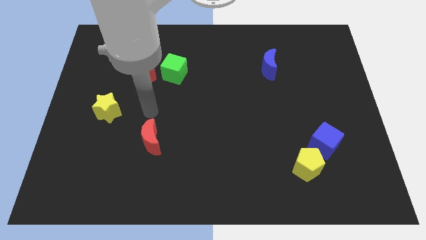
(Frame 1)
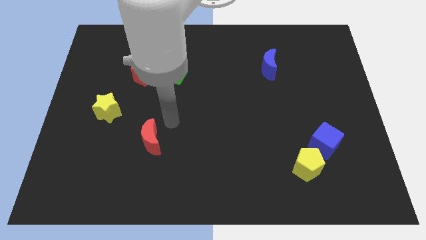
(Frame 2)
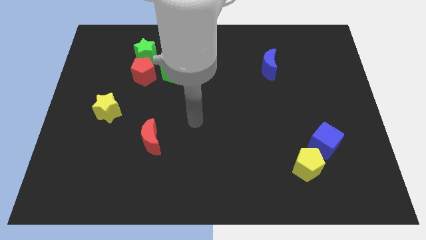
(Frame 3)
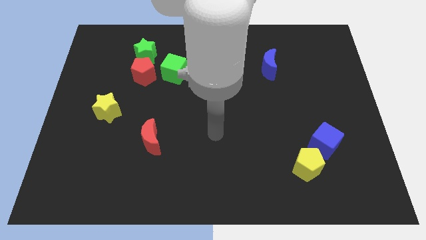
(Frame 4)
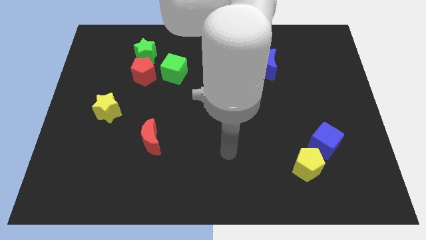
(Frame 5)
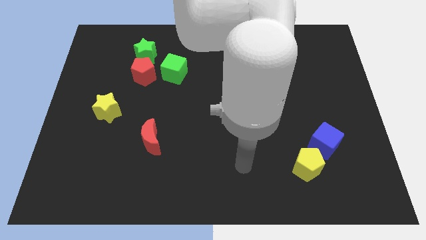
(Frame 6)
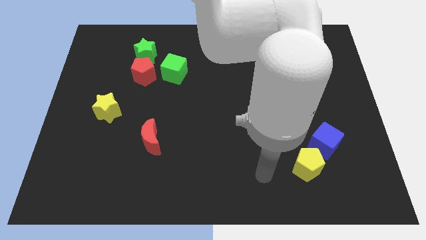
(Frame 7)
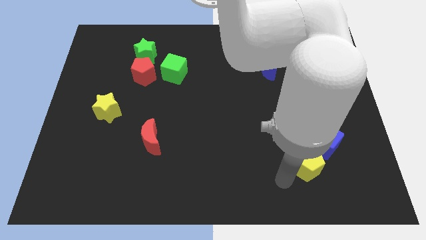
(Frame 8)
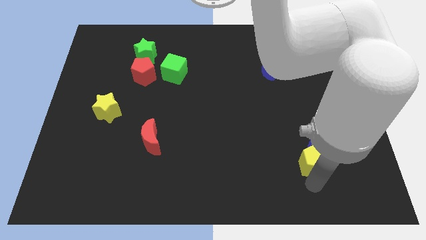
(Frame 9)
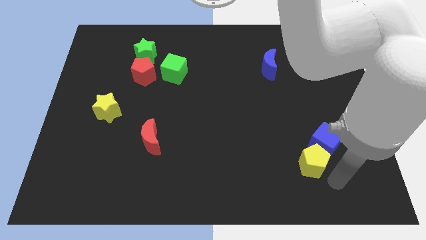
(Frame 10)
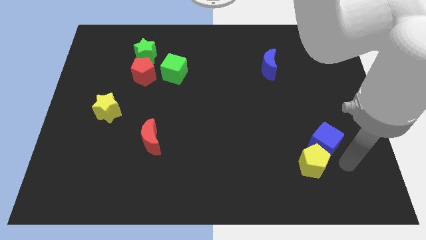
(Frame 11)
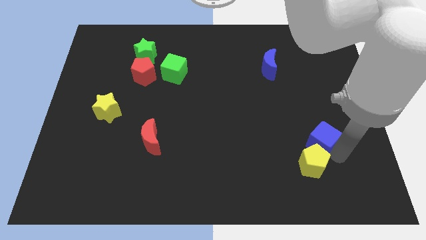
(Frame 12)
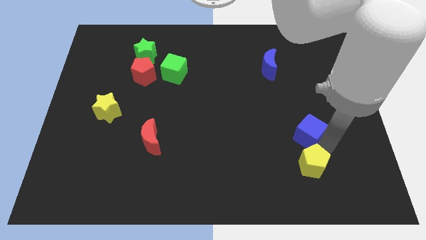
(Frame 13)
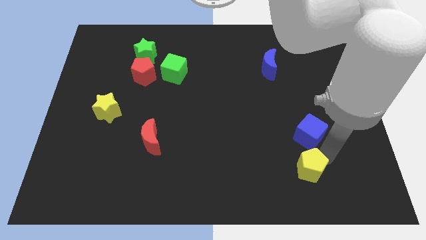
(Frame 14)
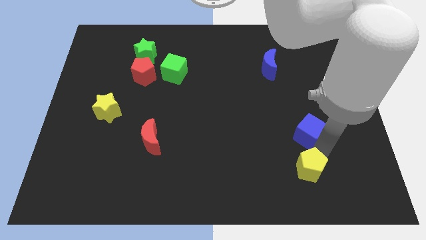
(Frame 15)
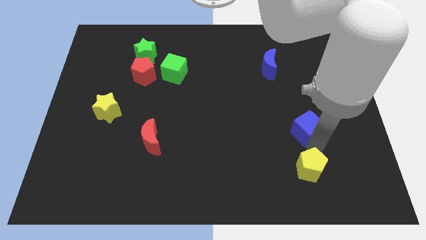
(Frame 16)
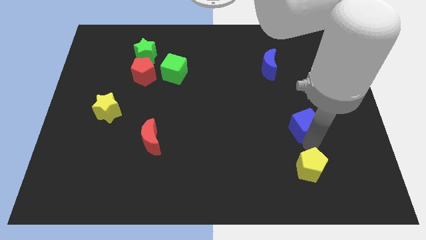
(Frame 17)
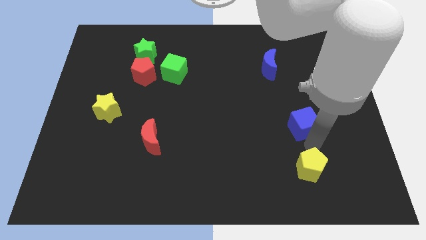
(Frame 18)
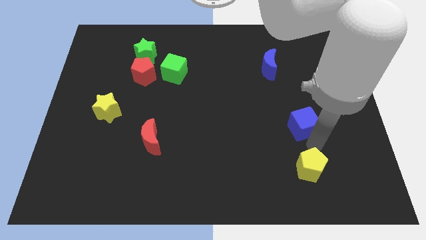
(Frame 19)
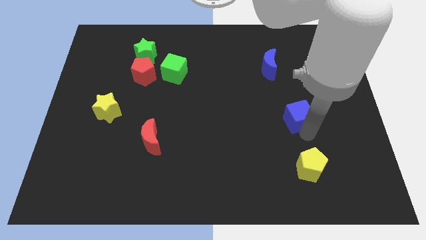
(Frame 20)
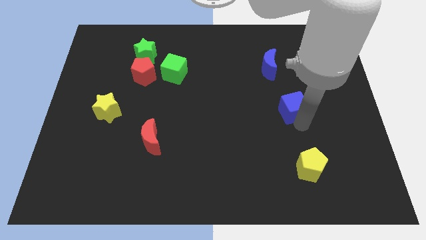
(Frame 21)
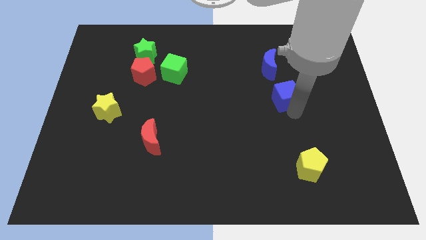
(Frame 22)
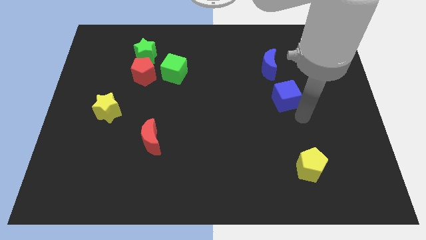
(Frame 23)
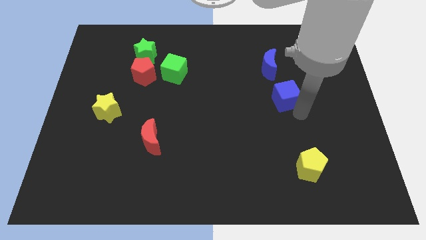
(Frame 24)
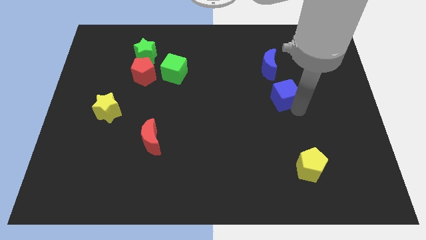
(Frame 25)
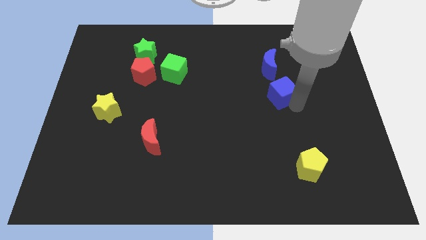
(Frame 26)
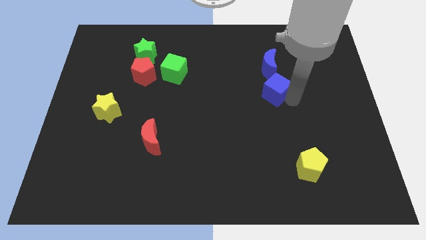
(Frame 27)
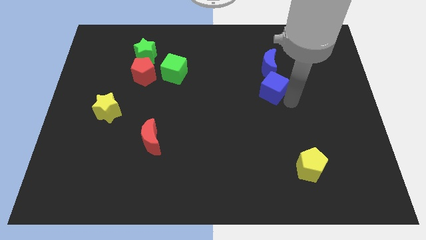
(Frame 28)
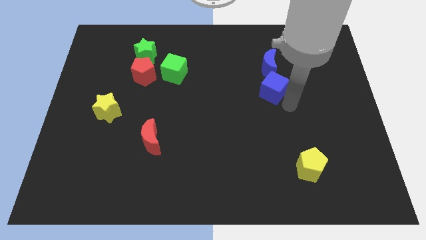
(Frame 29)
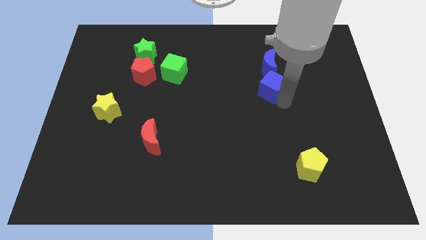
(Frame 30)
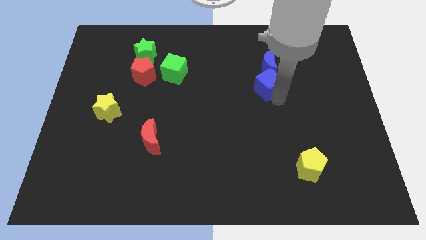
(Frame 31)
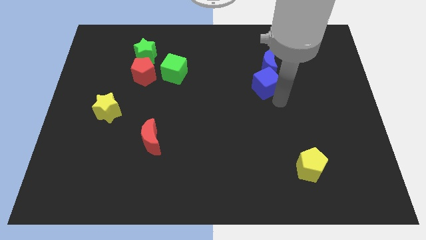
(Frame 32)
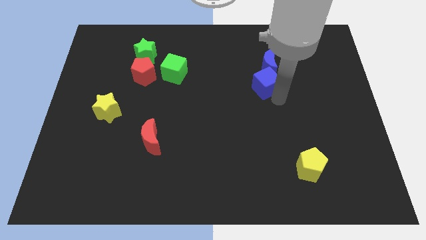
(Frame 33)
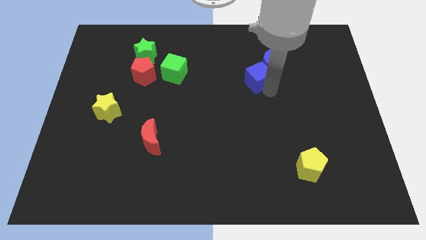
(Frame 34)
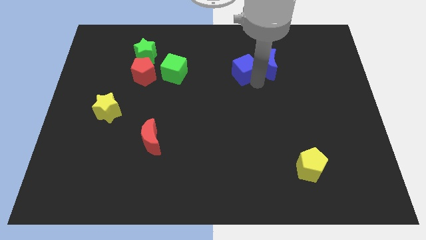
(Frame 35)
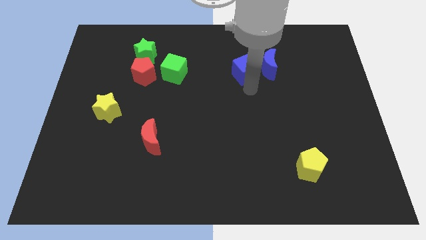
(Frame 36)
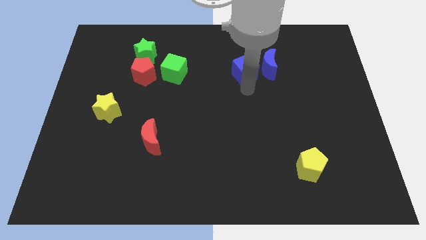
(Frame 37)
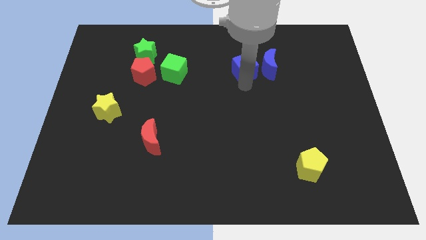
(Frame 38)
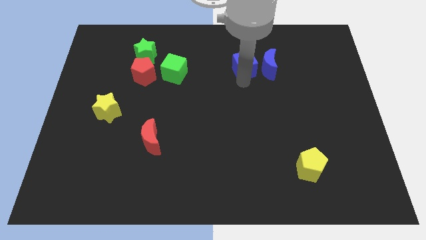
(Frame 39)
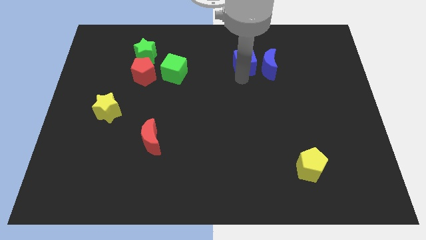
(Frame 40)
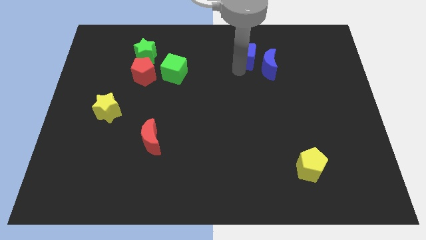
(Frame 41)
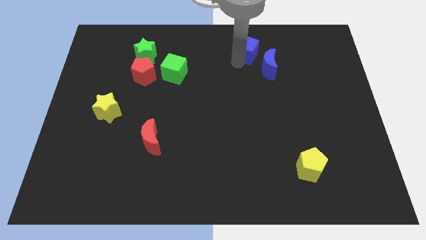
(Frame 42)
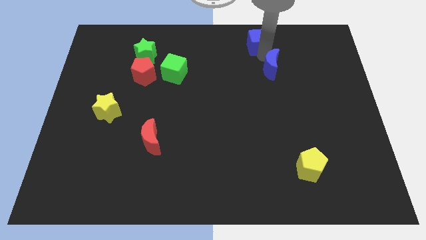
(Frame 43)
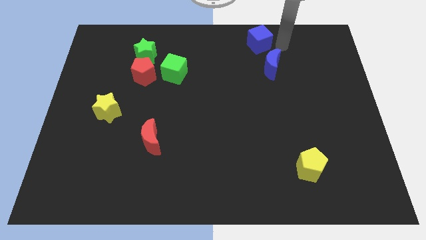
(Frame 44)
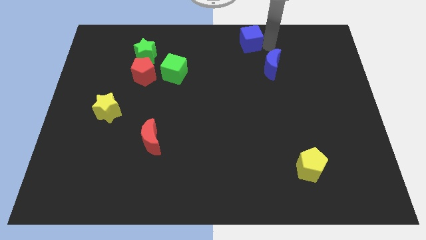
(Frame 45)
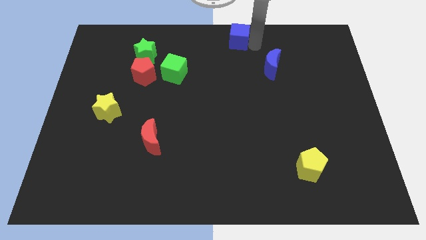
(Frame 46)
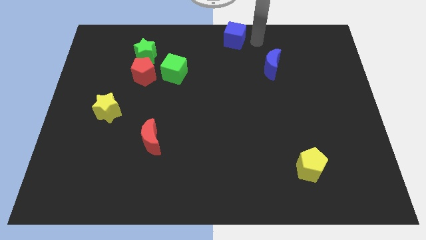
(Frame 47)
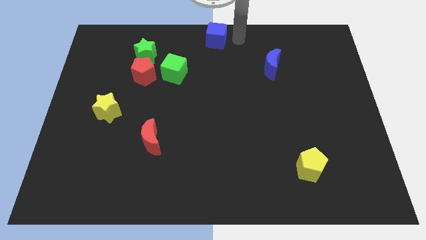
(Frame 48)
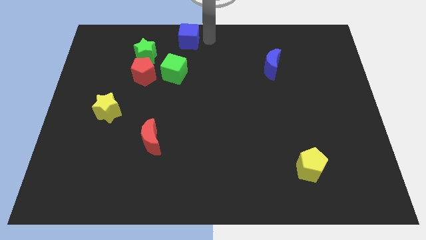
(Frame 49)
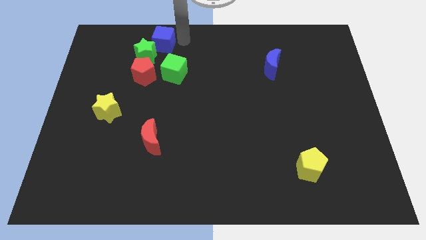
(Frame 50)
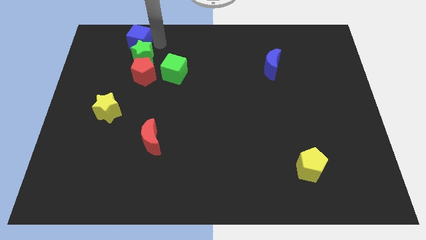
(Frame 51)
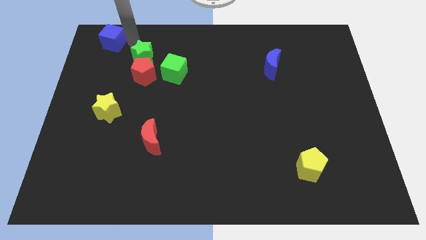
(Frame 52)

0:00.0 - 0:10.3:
slide the blue cube to the upper left corner

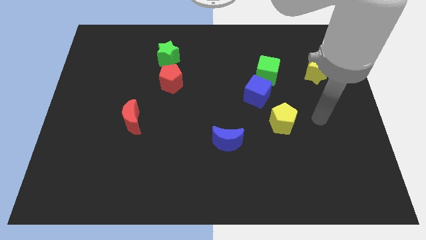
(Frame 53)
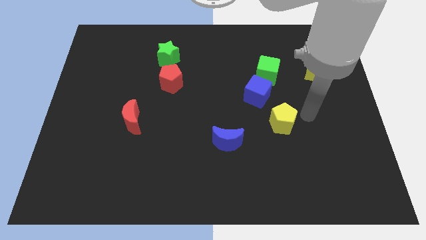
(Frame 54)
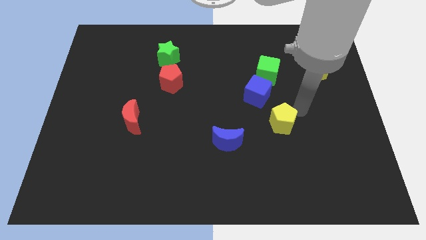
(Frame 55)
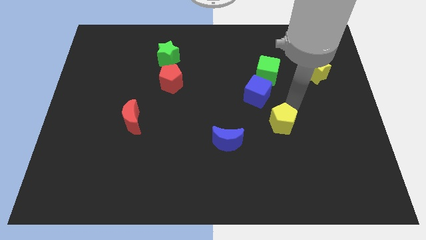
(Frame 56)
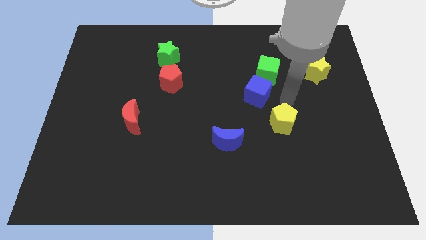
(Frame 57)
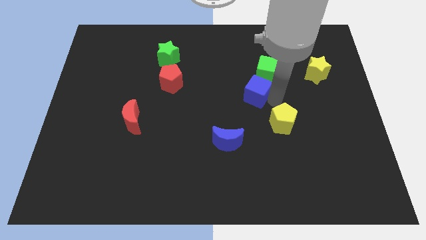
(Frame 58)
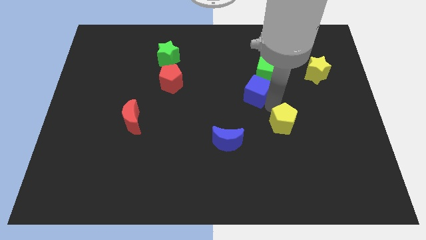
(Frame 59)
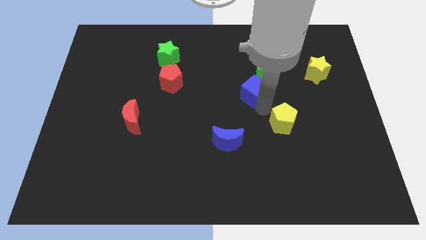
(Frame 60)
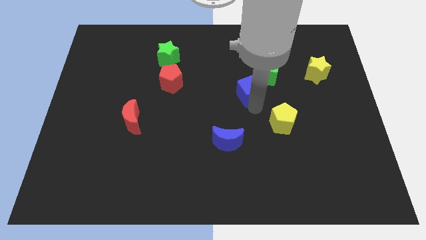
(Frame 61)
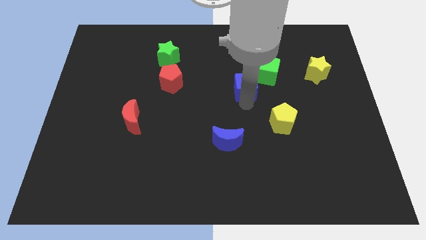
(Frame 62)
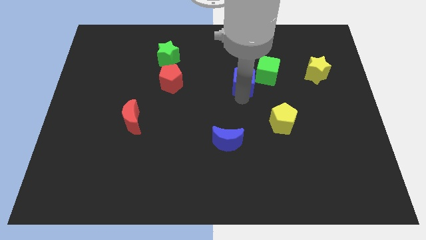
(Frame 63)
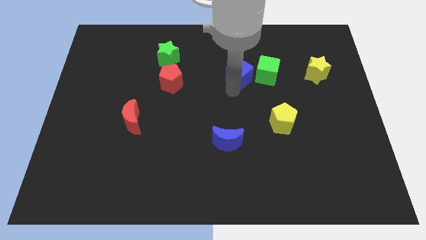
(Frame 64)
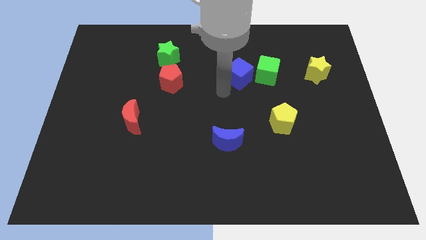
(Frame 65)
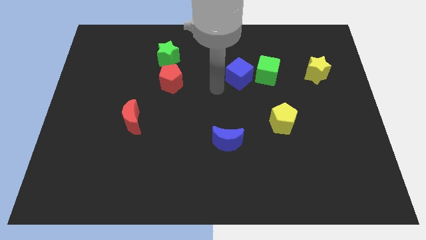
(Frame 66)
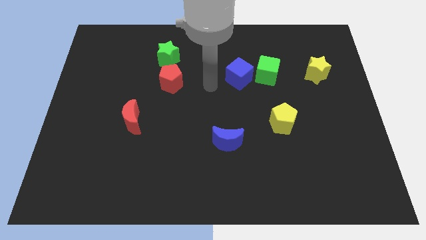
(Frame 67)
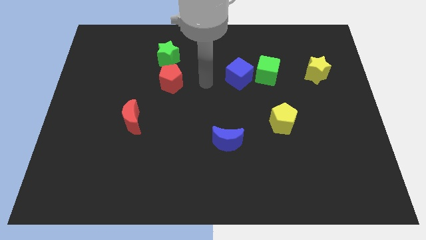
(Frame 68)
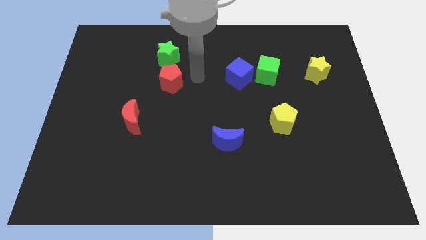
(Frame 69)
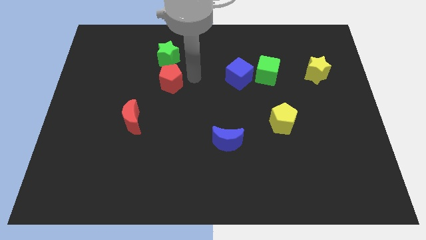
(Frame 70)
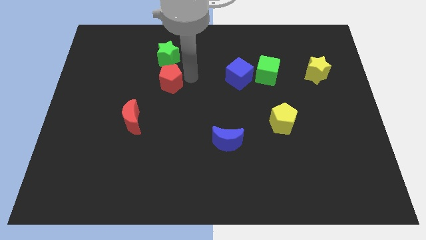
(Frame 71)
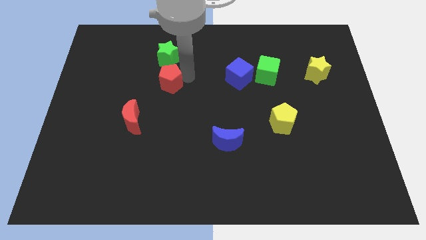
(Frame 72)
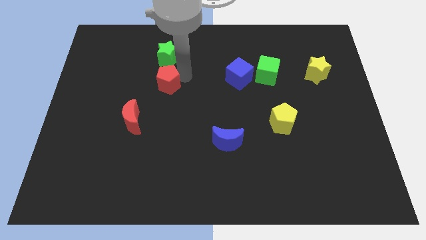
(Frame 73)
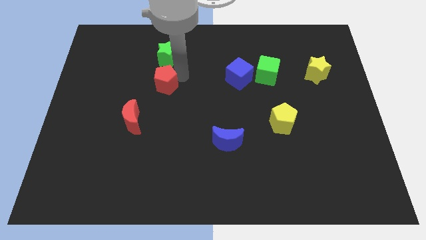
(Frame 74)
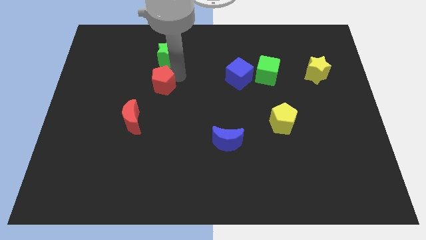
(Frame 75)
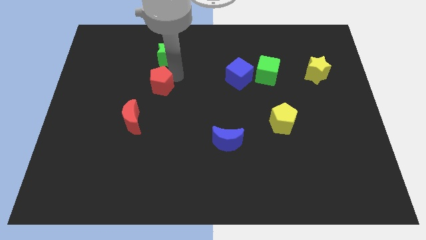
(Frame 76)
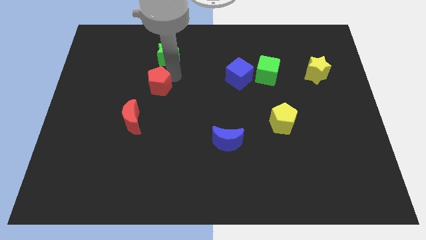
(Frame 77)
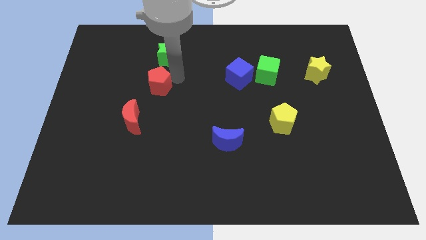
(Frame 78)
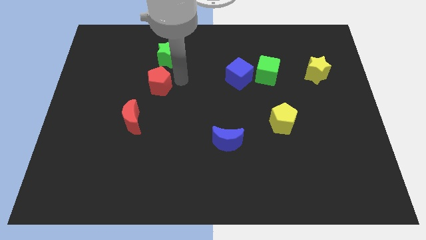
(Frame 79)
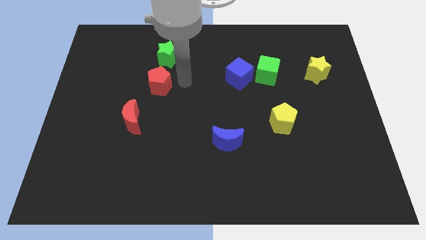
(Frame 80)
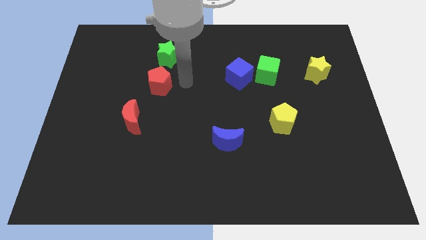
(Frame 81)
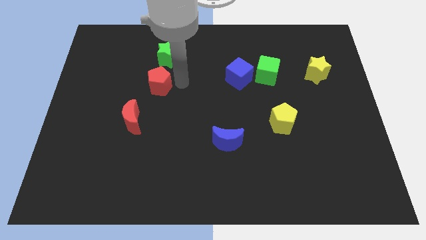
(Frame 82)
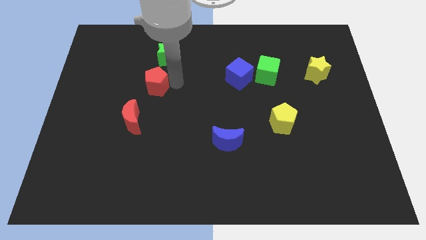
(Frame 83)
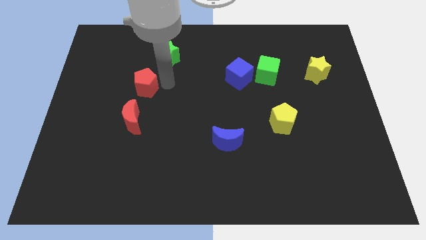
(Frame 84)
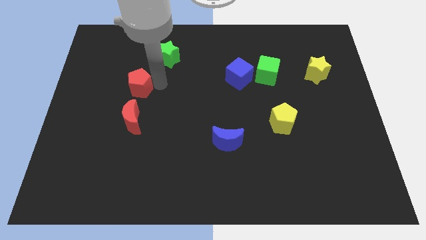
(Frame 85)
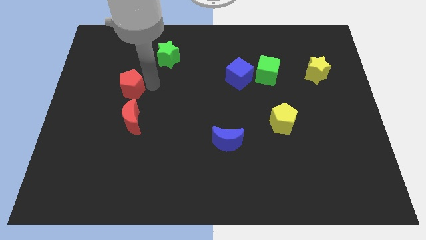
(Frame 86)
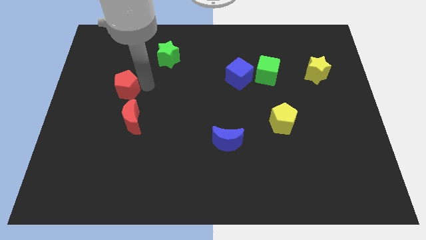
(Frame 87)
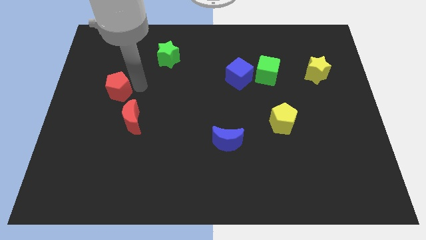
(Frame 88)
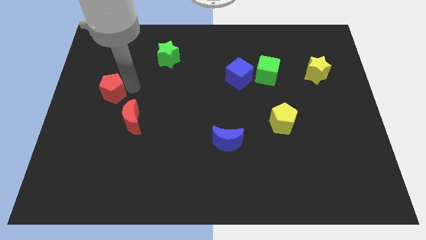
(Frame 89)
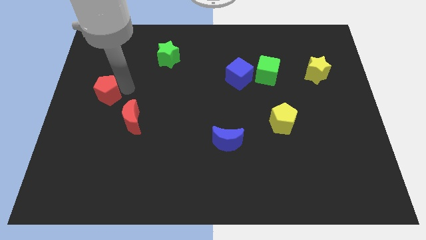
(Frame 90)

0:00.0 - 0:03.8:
push the red pentagon to the center left
